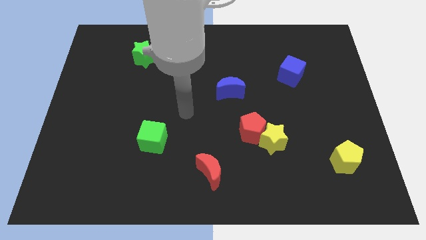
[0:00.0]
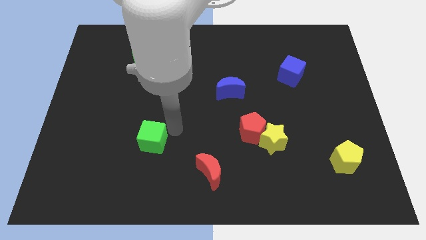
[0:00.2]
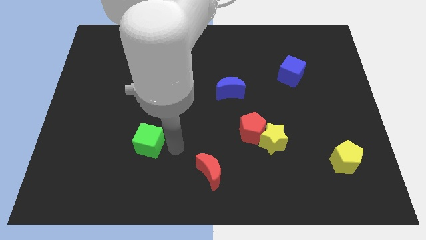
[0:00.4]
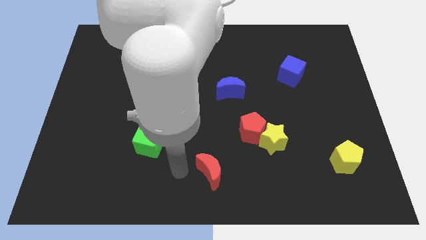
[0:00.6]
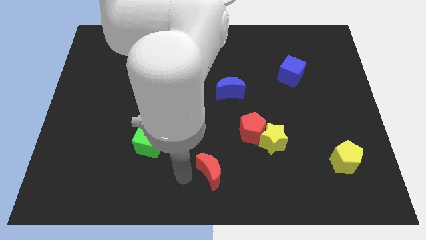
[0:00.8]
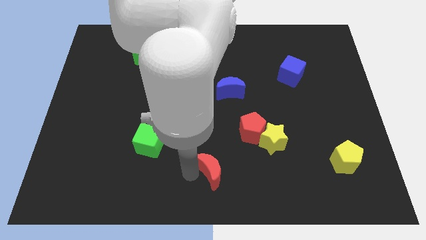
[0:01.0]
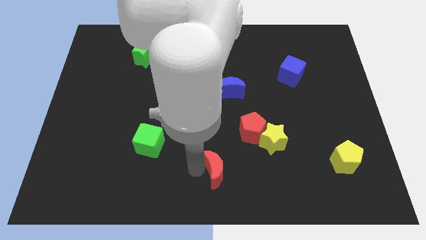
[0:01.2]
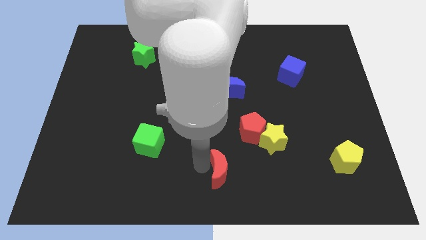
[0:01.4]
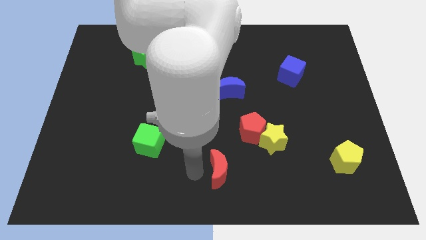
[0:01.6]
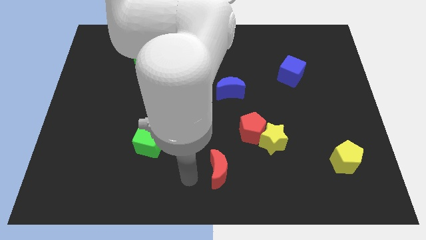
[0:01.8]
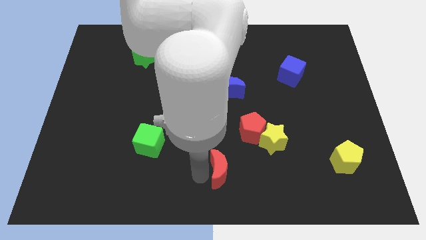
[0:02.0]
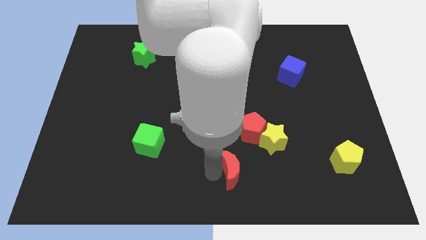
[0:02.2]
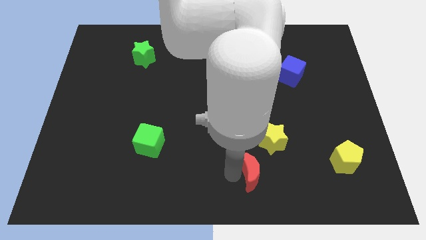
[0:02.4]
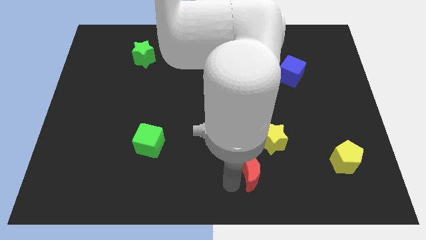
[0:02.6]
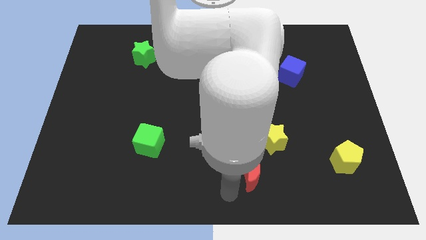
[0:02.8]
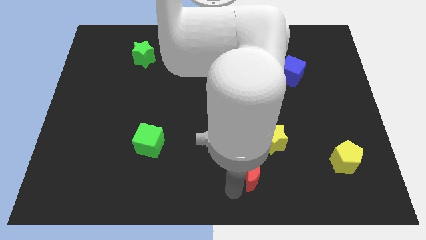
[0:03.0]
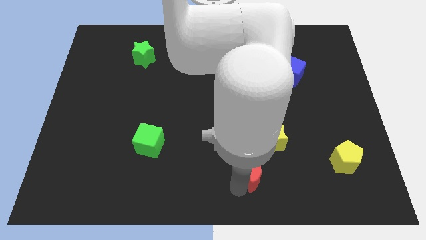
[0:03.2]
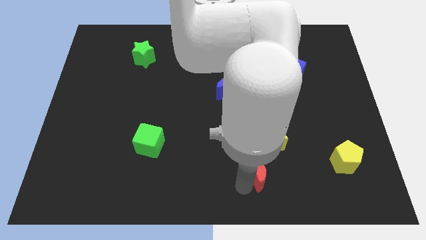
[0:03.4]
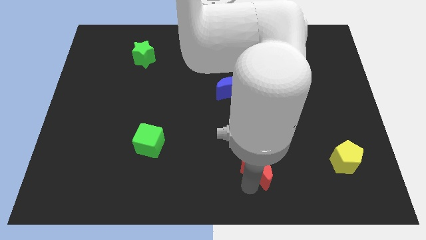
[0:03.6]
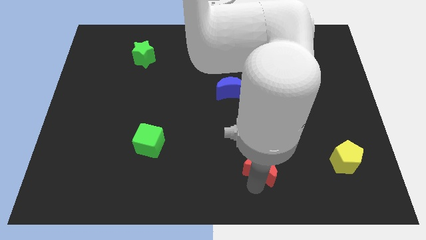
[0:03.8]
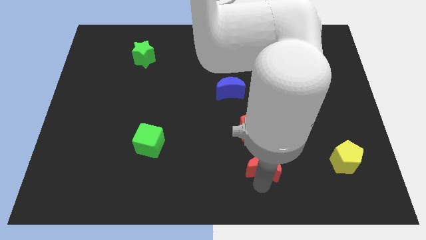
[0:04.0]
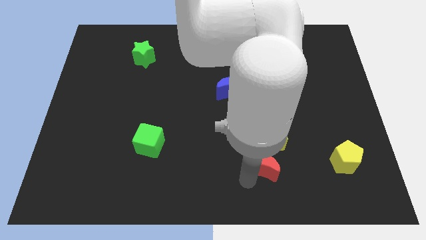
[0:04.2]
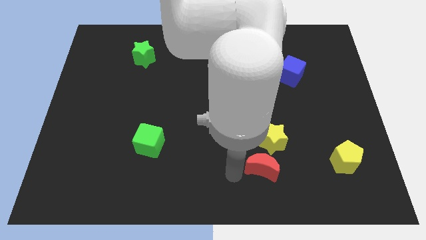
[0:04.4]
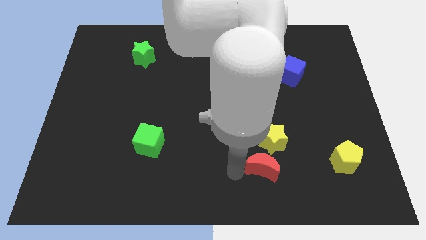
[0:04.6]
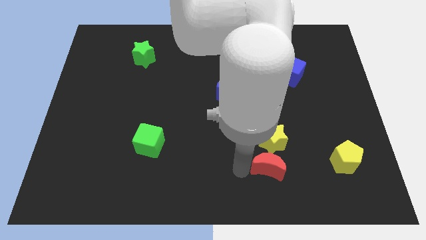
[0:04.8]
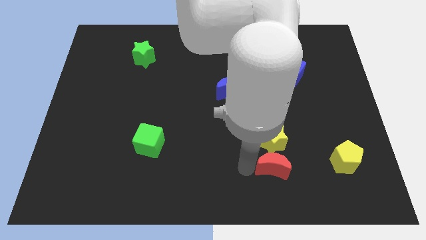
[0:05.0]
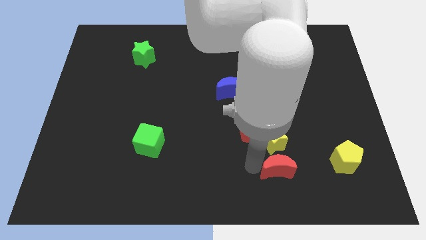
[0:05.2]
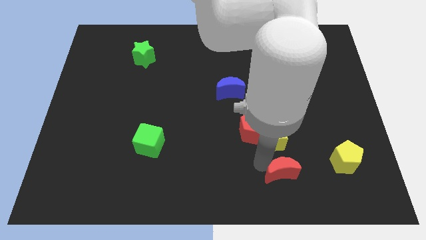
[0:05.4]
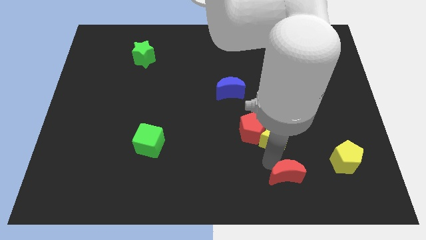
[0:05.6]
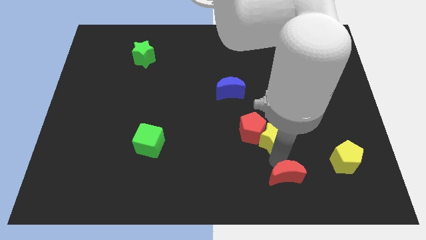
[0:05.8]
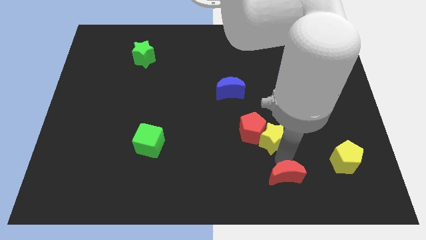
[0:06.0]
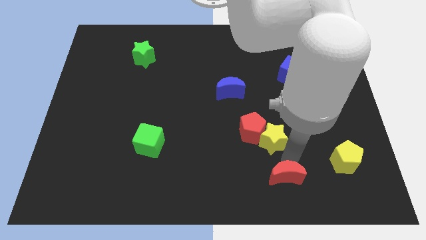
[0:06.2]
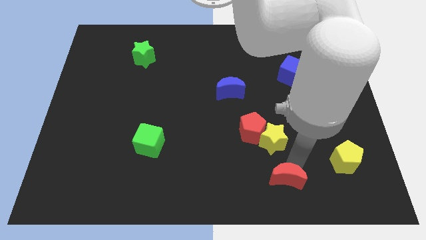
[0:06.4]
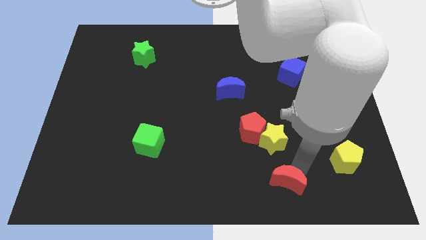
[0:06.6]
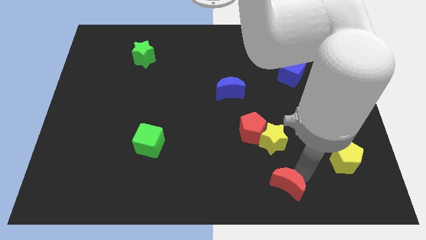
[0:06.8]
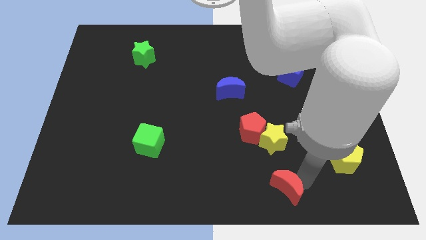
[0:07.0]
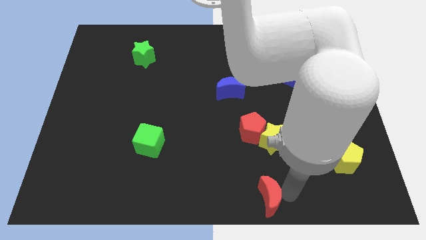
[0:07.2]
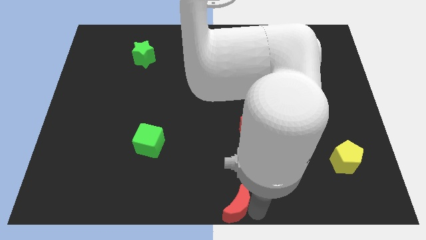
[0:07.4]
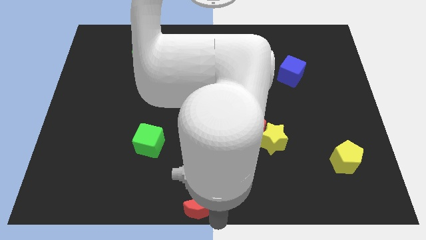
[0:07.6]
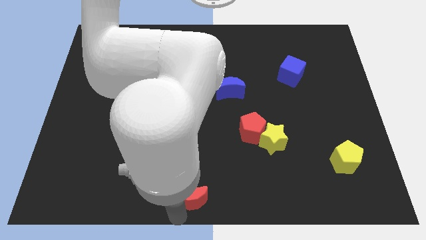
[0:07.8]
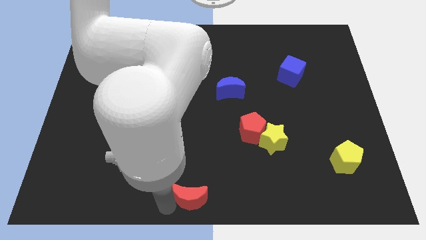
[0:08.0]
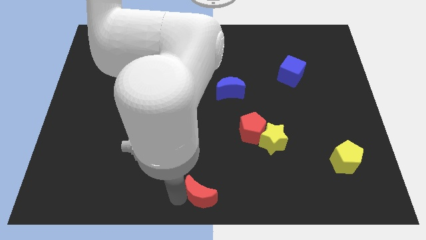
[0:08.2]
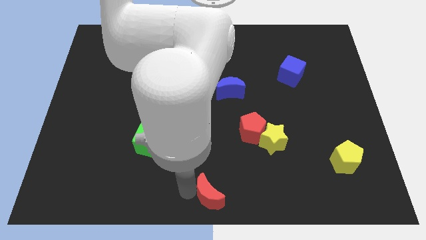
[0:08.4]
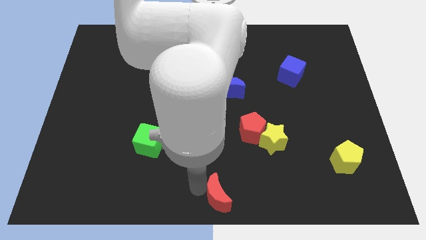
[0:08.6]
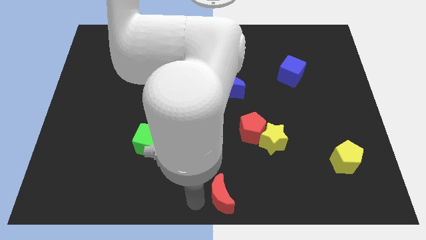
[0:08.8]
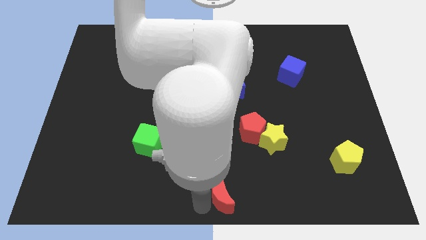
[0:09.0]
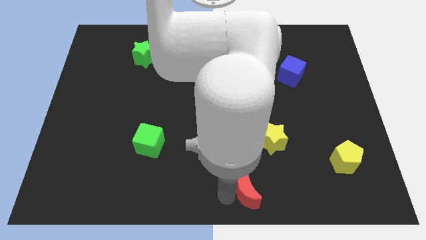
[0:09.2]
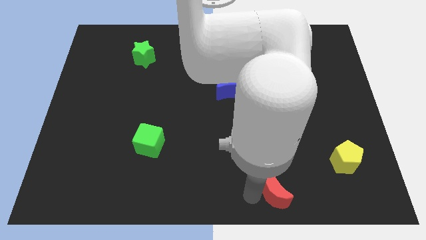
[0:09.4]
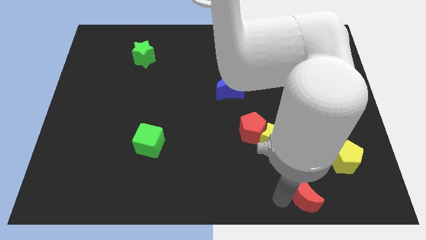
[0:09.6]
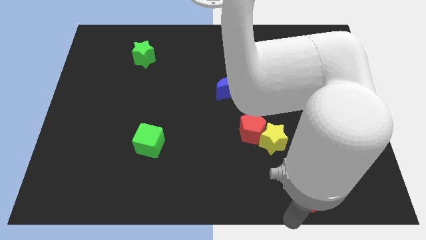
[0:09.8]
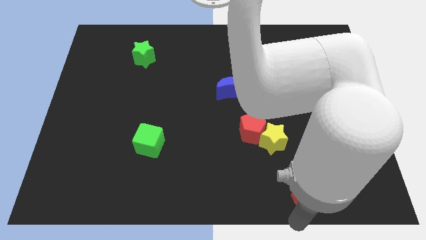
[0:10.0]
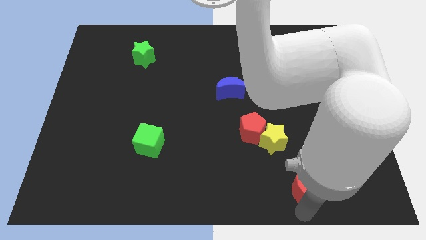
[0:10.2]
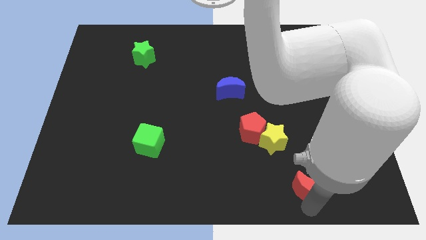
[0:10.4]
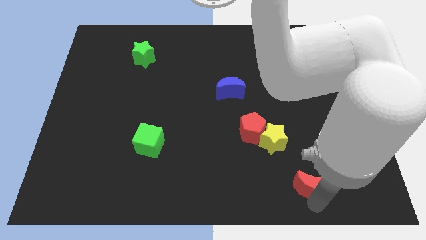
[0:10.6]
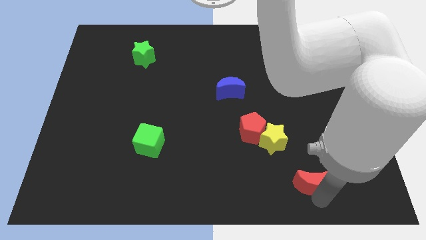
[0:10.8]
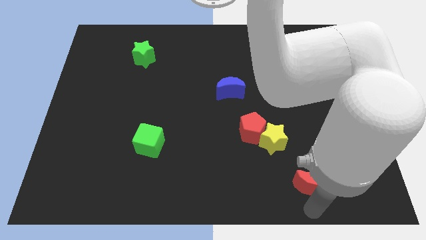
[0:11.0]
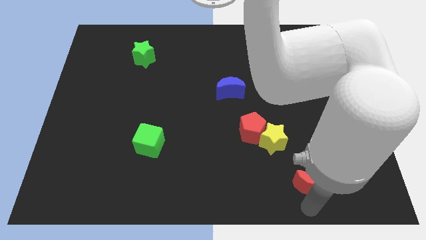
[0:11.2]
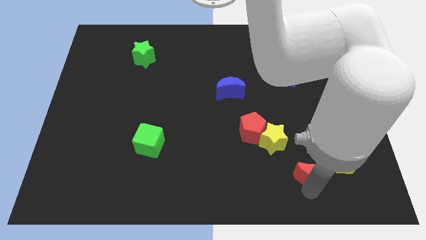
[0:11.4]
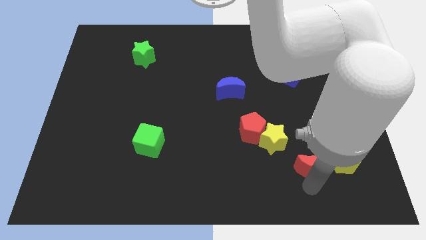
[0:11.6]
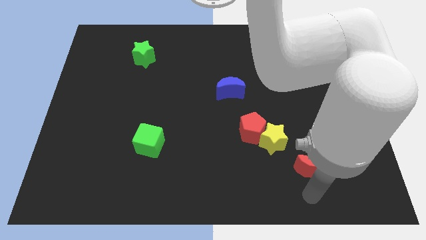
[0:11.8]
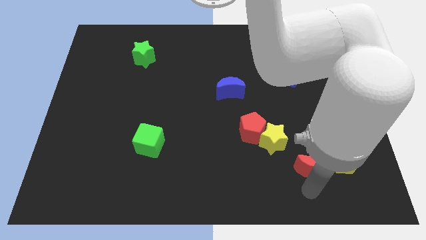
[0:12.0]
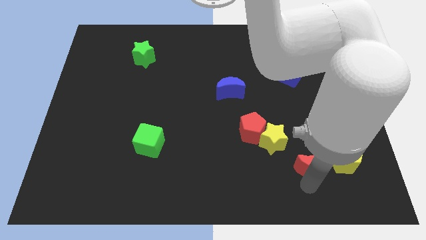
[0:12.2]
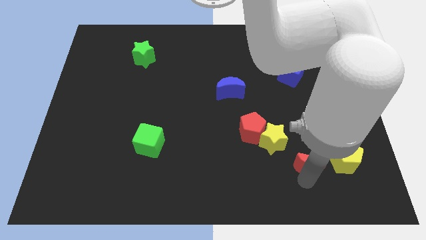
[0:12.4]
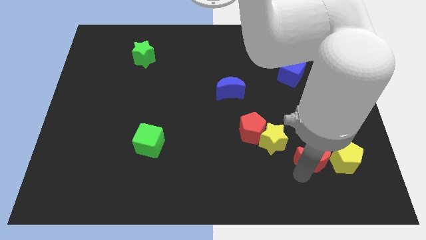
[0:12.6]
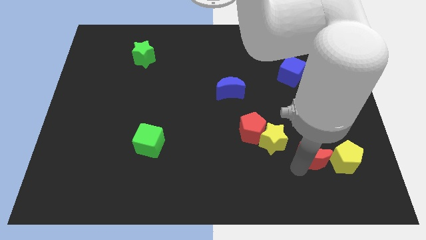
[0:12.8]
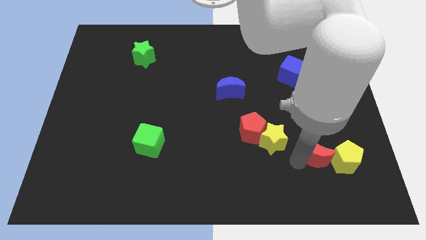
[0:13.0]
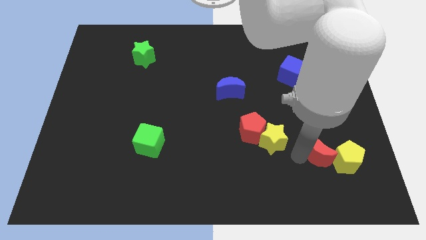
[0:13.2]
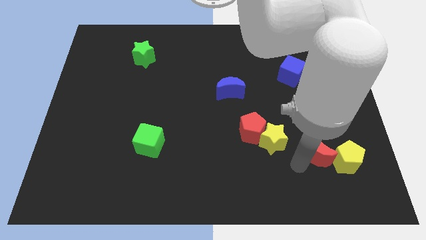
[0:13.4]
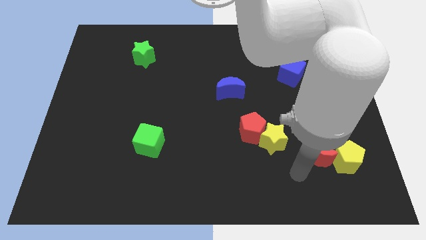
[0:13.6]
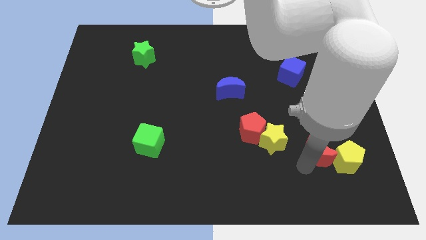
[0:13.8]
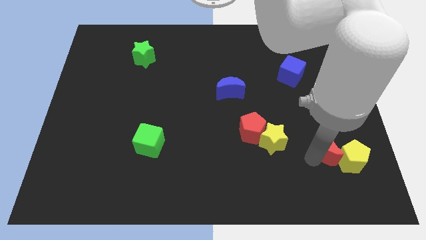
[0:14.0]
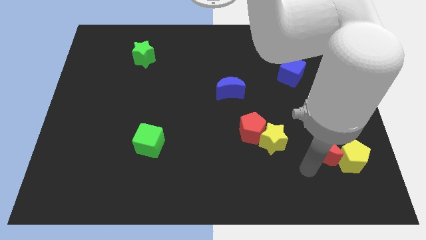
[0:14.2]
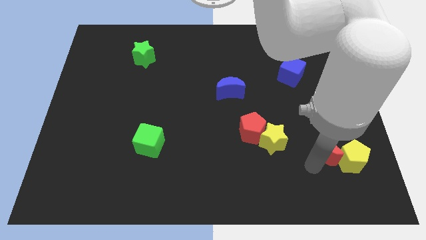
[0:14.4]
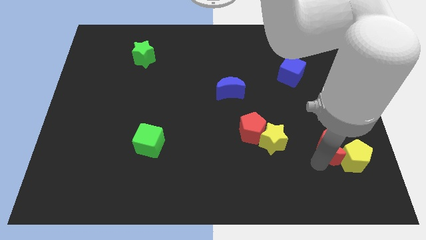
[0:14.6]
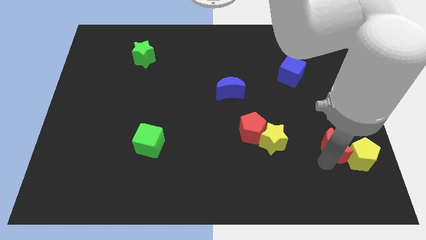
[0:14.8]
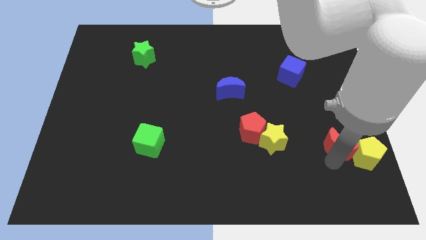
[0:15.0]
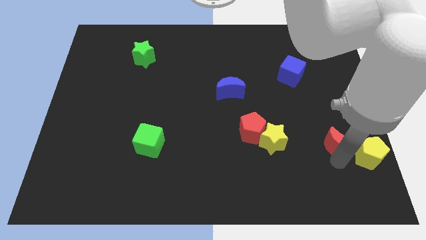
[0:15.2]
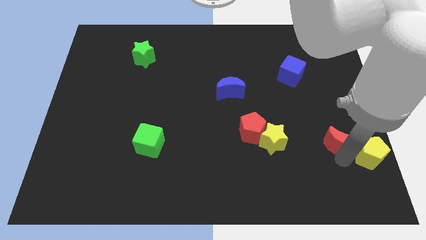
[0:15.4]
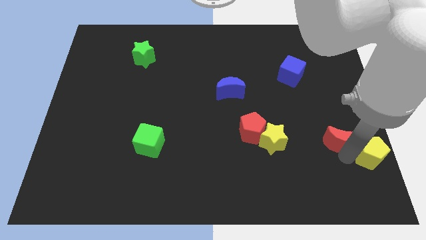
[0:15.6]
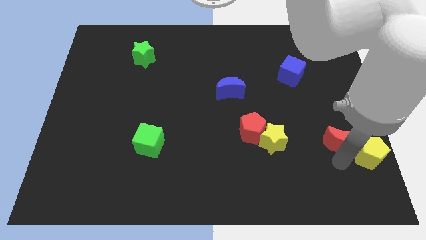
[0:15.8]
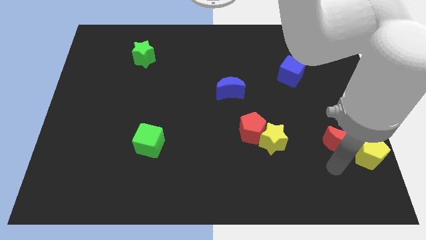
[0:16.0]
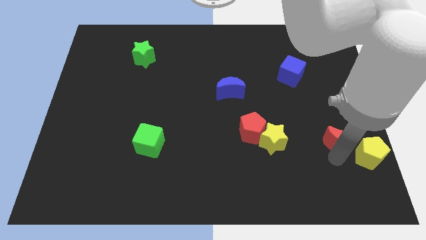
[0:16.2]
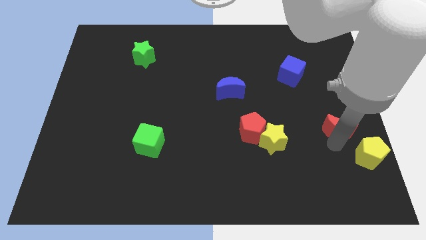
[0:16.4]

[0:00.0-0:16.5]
put the red moon to the right side
